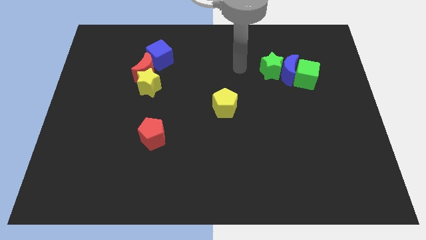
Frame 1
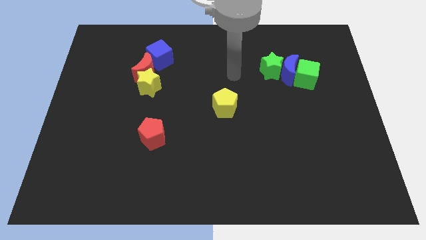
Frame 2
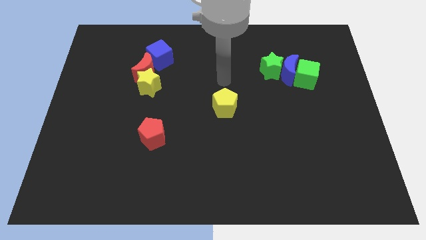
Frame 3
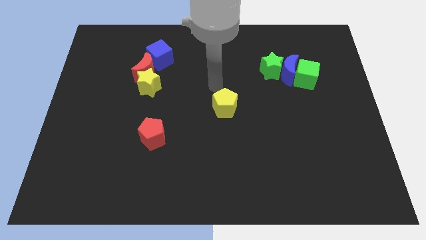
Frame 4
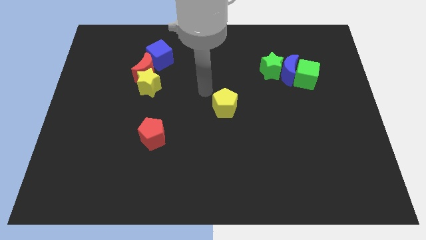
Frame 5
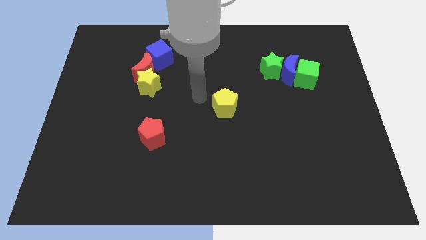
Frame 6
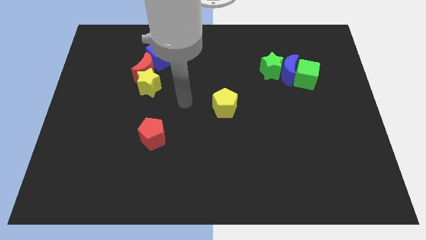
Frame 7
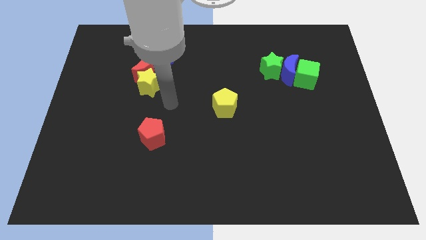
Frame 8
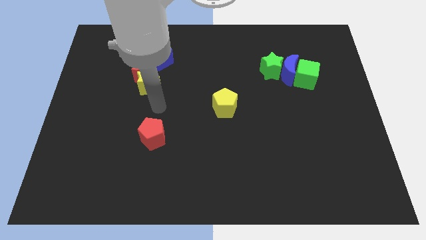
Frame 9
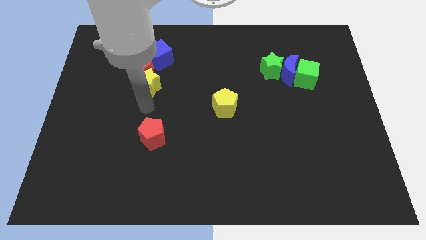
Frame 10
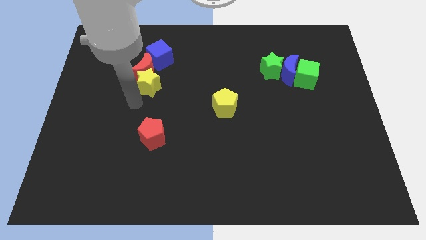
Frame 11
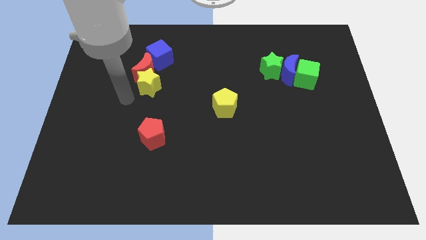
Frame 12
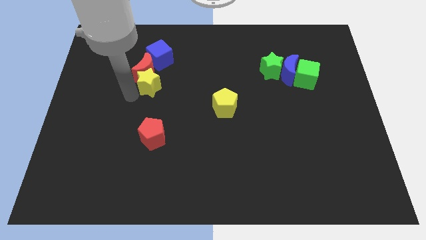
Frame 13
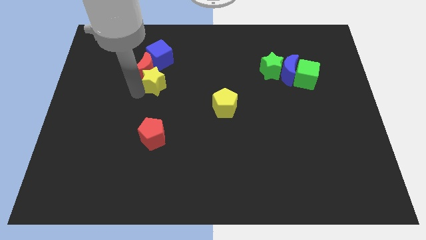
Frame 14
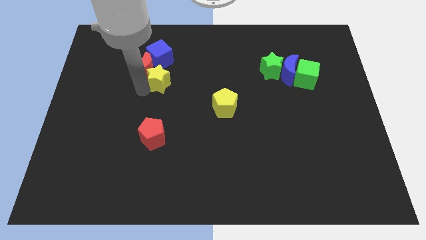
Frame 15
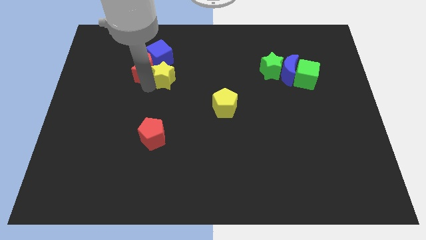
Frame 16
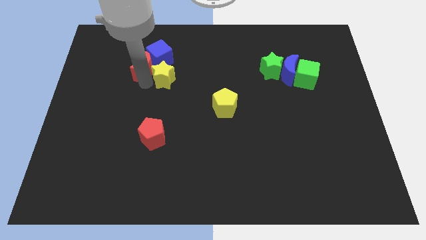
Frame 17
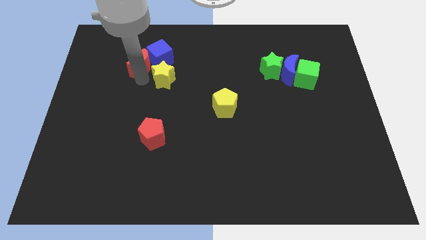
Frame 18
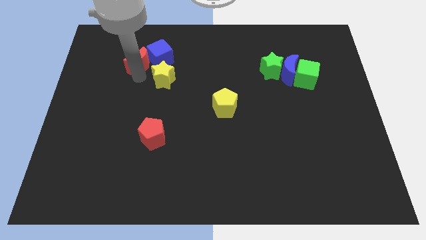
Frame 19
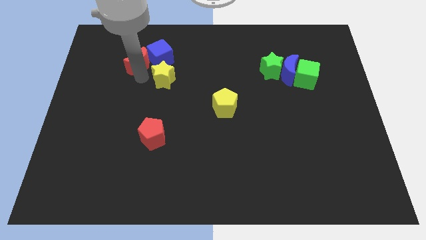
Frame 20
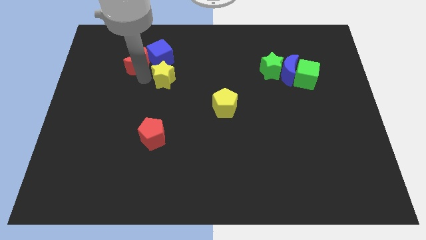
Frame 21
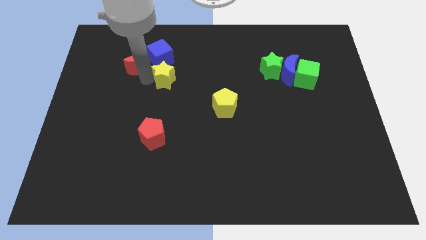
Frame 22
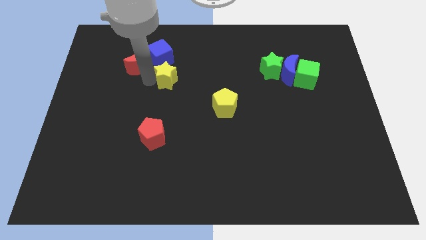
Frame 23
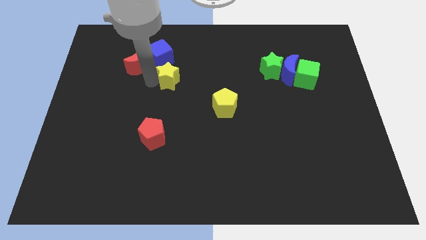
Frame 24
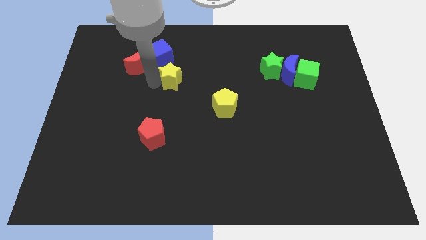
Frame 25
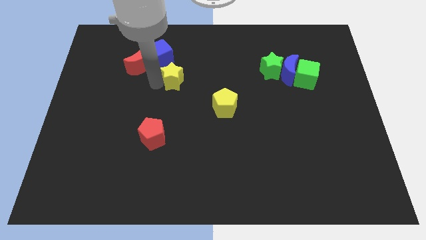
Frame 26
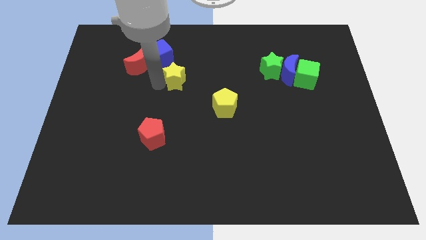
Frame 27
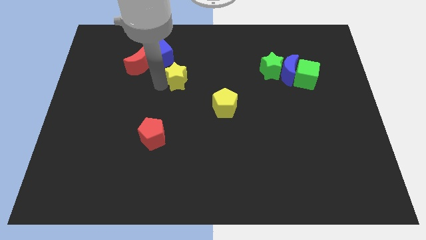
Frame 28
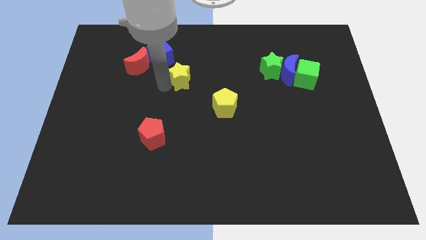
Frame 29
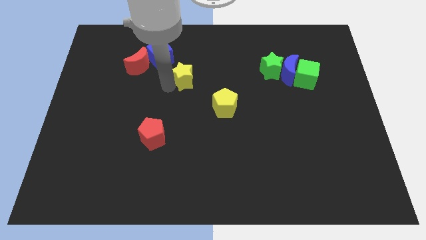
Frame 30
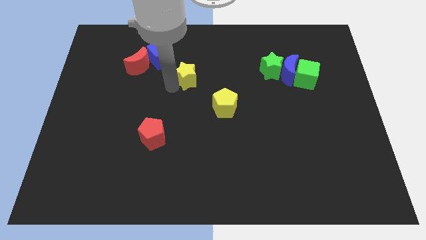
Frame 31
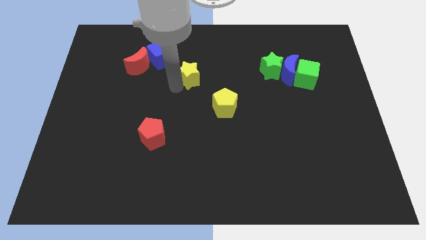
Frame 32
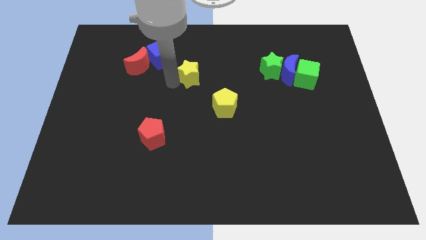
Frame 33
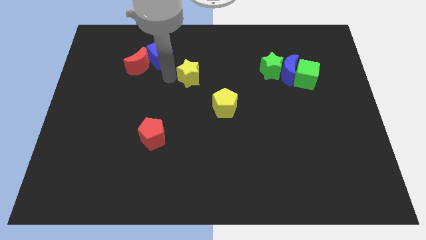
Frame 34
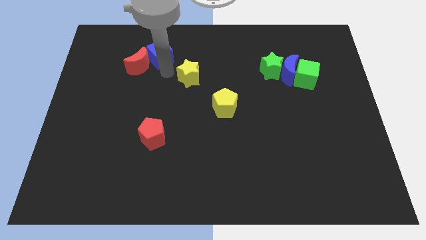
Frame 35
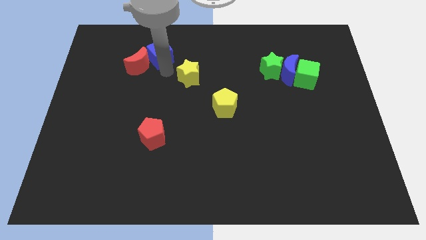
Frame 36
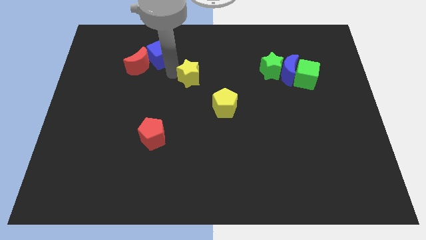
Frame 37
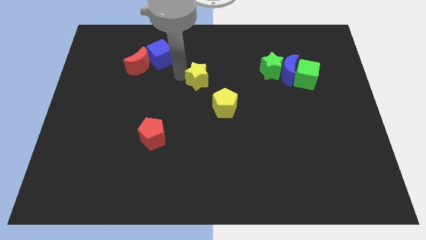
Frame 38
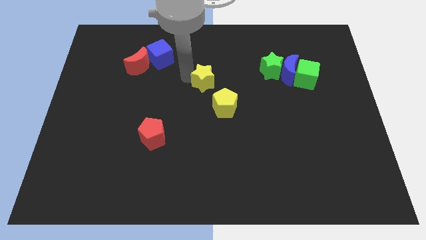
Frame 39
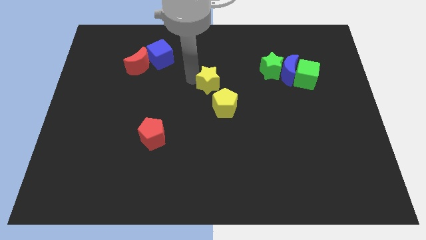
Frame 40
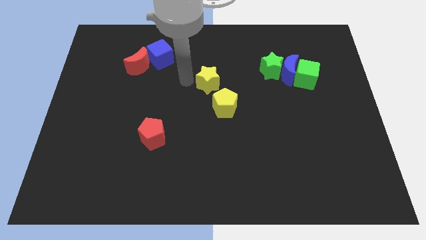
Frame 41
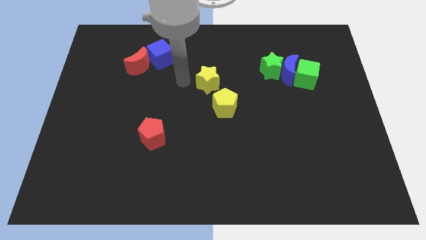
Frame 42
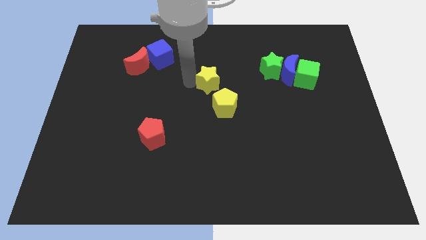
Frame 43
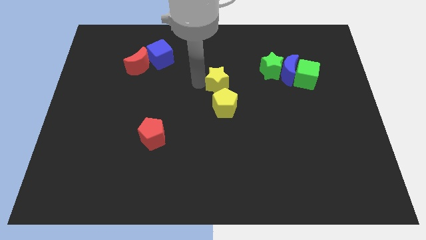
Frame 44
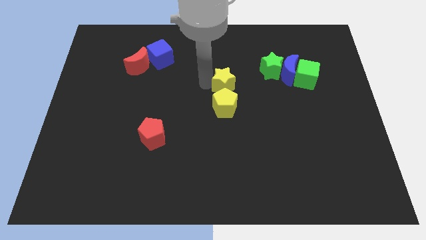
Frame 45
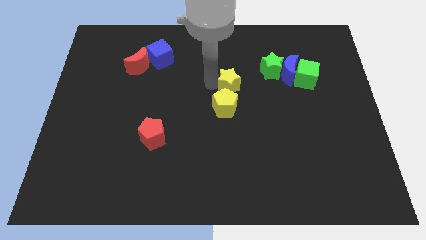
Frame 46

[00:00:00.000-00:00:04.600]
slide the yellow star right

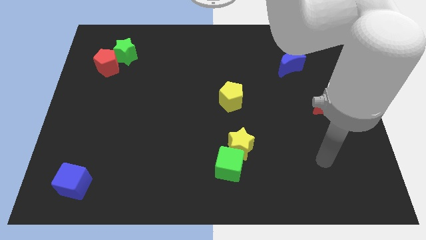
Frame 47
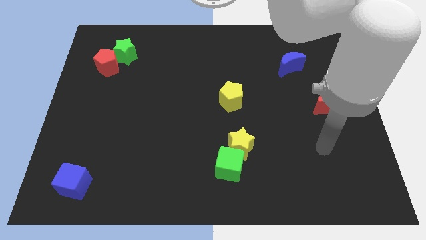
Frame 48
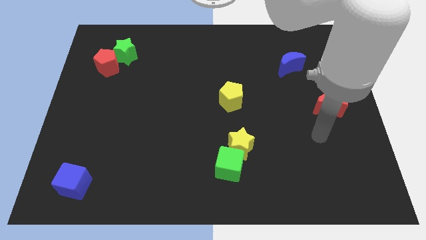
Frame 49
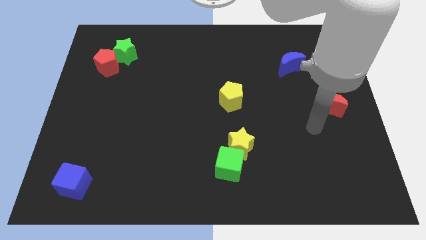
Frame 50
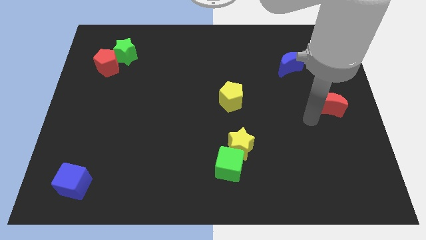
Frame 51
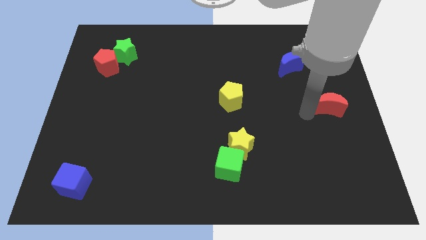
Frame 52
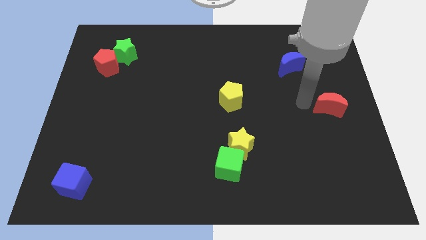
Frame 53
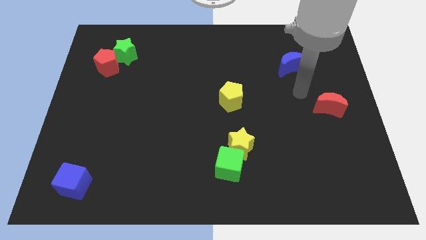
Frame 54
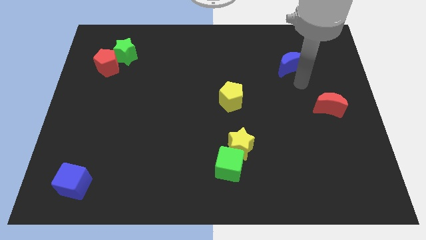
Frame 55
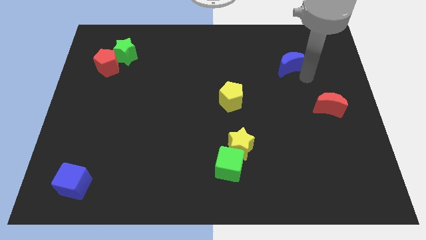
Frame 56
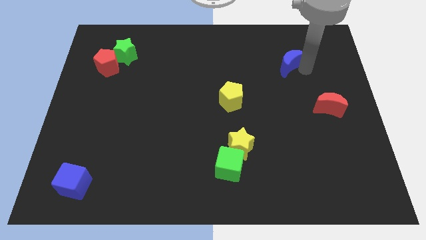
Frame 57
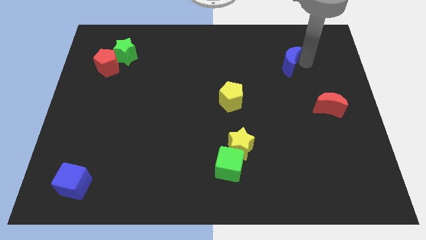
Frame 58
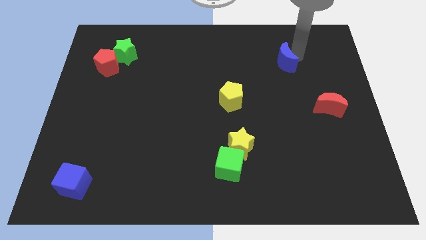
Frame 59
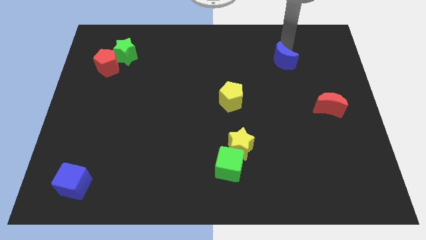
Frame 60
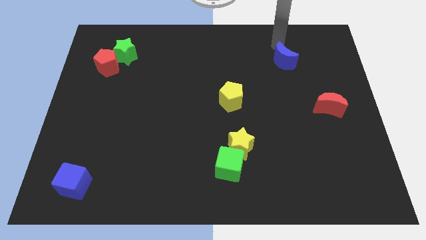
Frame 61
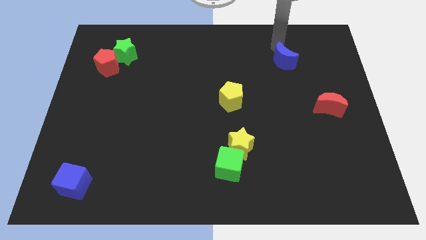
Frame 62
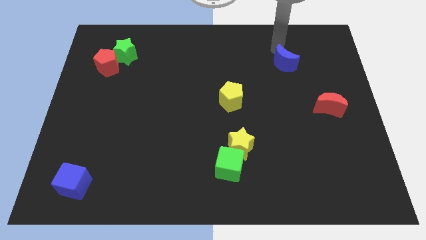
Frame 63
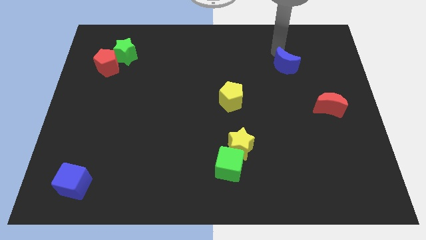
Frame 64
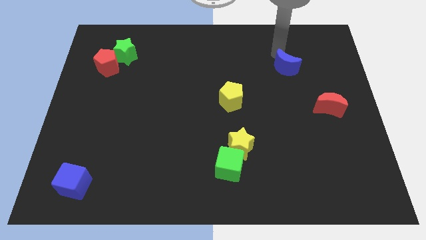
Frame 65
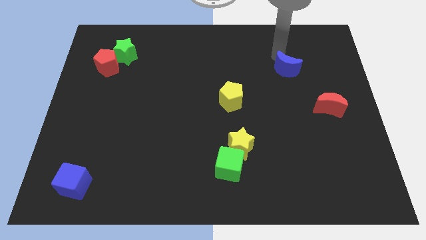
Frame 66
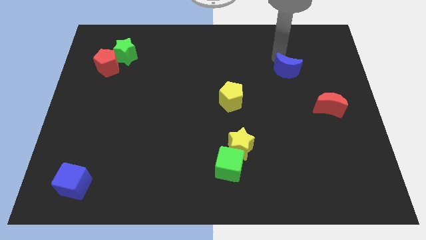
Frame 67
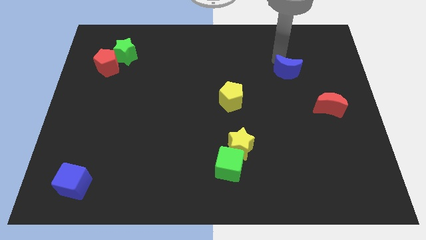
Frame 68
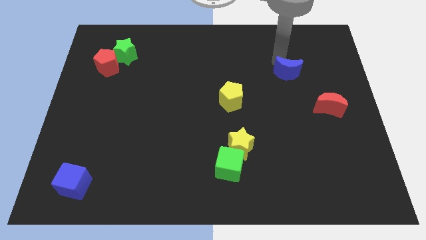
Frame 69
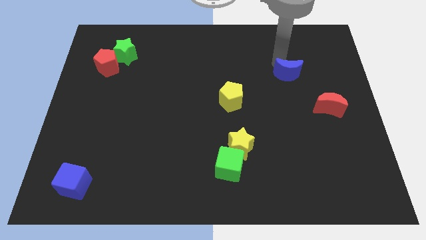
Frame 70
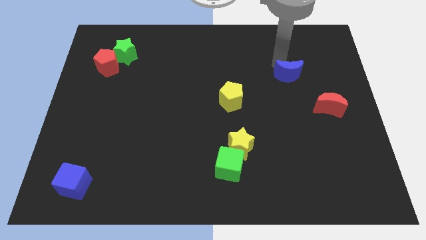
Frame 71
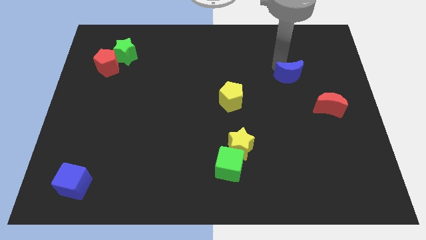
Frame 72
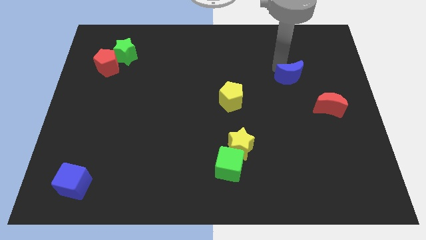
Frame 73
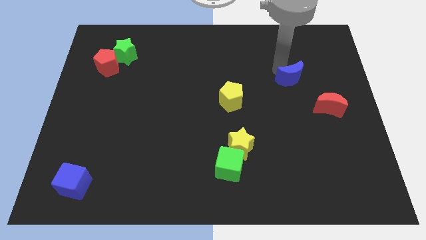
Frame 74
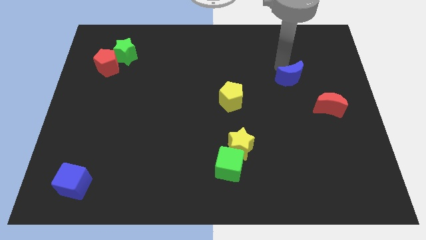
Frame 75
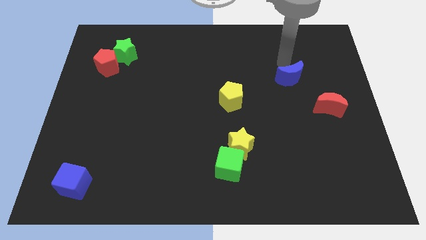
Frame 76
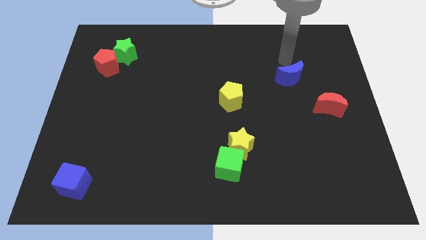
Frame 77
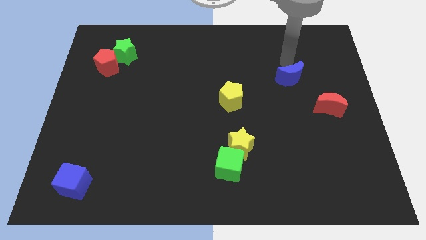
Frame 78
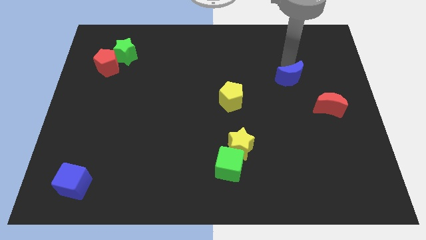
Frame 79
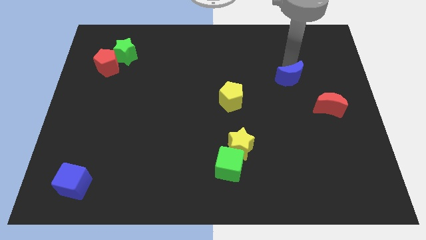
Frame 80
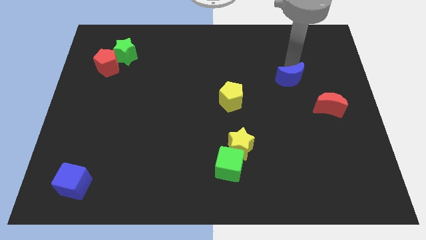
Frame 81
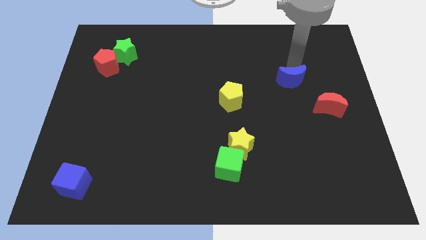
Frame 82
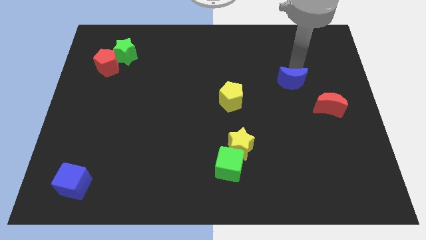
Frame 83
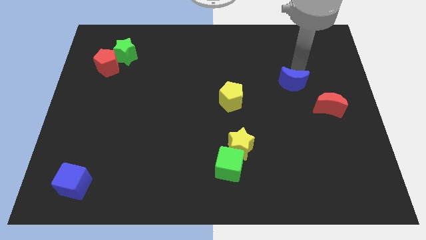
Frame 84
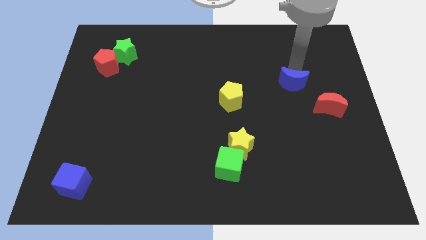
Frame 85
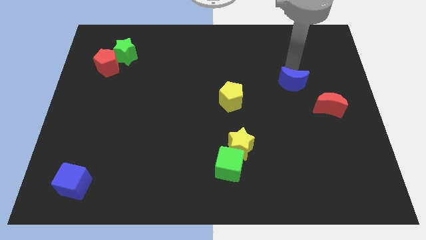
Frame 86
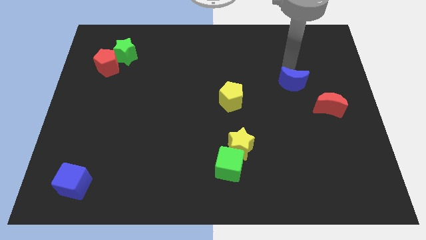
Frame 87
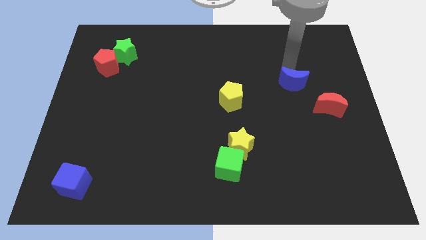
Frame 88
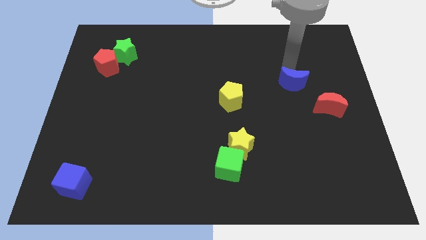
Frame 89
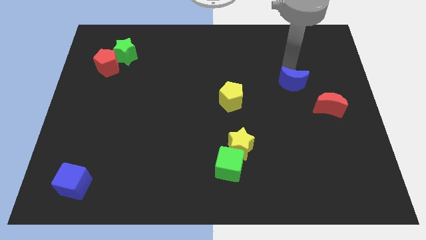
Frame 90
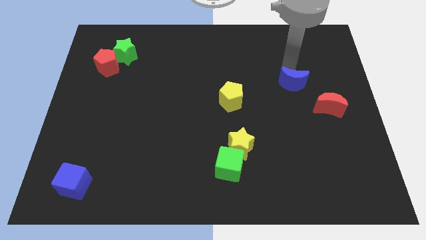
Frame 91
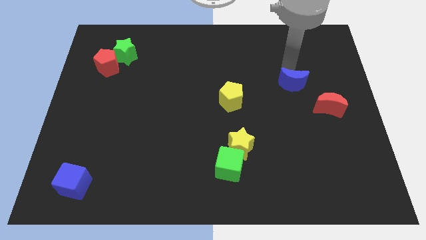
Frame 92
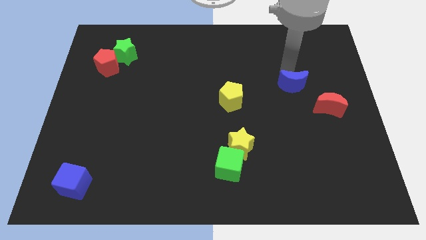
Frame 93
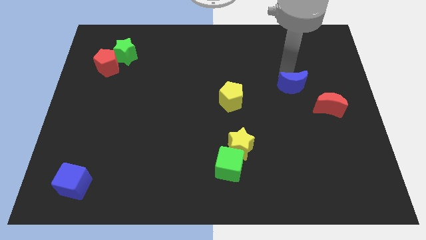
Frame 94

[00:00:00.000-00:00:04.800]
slightly push the blue moon downwards
